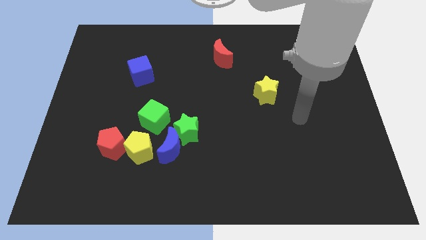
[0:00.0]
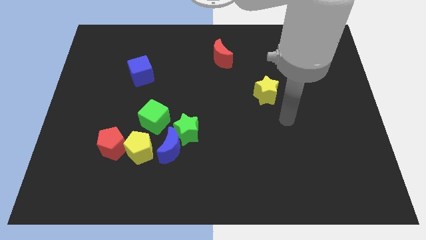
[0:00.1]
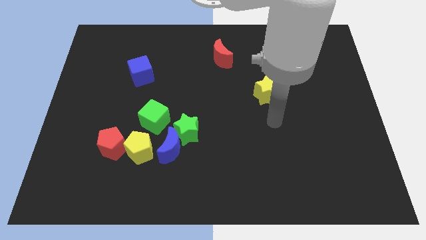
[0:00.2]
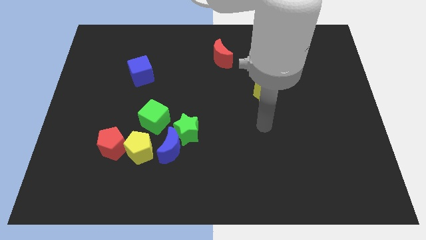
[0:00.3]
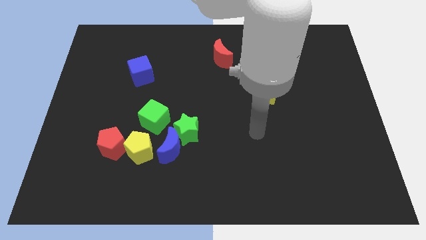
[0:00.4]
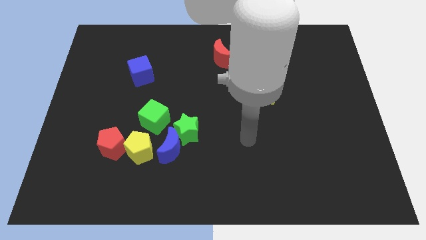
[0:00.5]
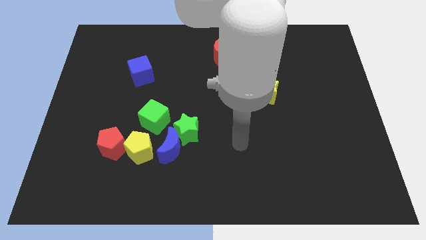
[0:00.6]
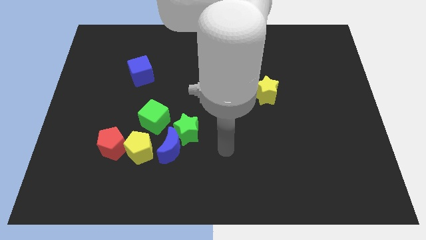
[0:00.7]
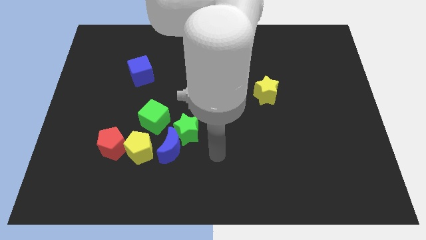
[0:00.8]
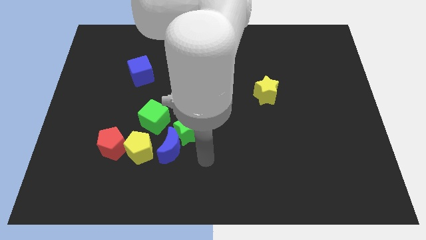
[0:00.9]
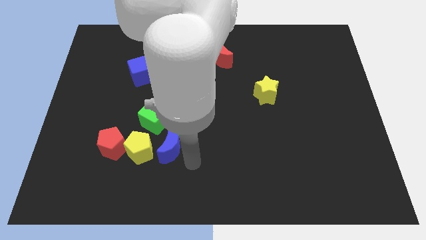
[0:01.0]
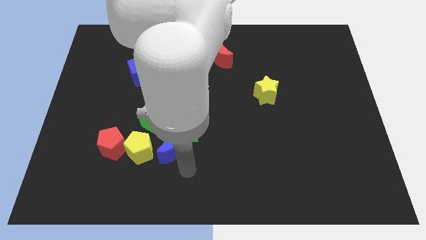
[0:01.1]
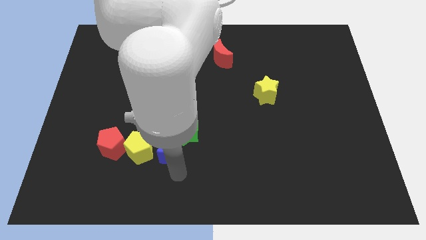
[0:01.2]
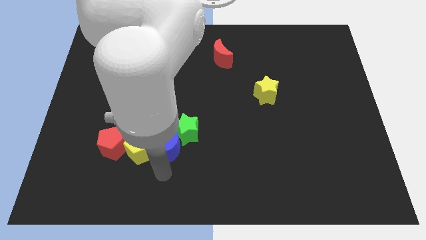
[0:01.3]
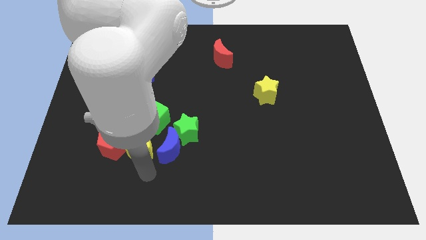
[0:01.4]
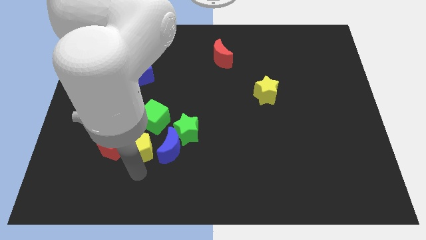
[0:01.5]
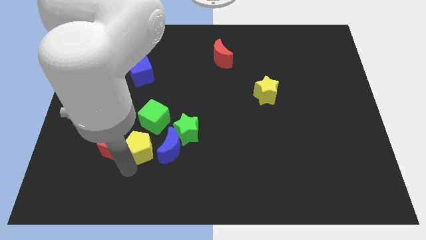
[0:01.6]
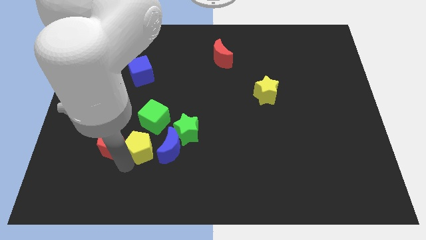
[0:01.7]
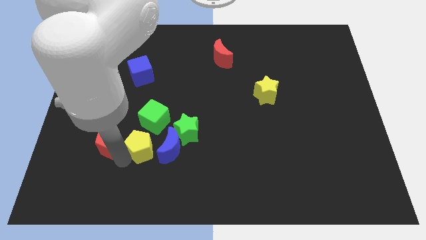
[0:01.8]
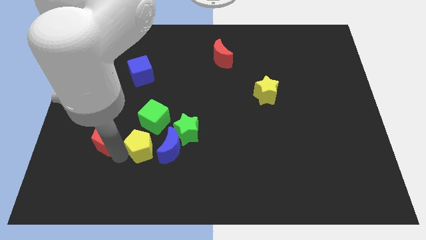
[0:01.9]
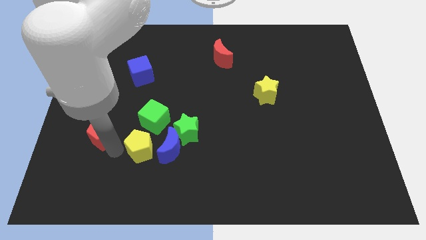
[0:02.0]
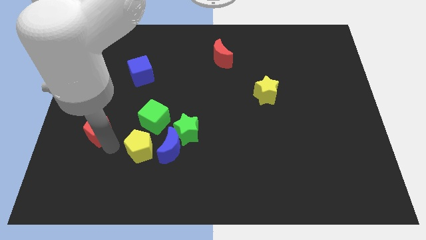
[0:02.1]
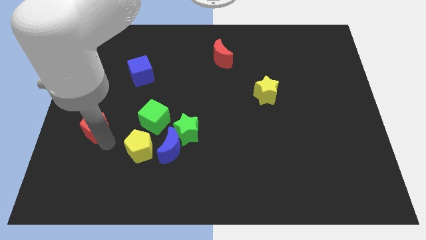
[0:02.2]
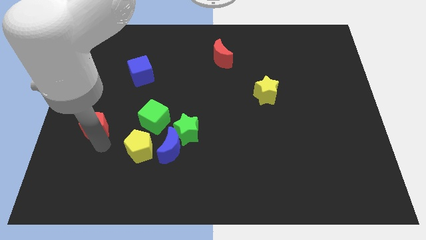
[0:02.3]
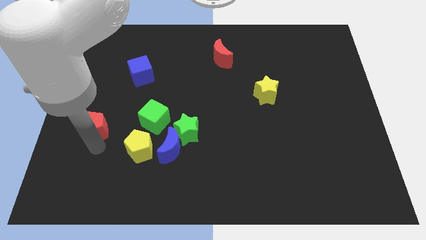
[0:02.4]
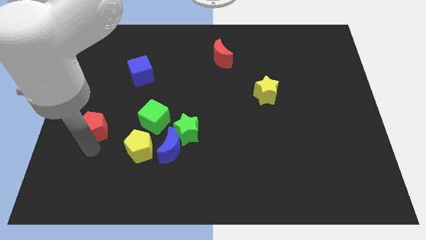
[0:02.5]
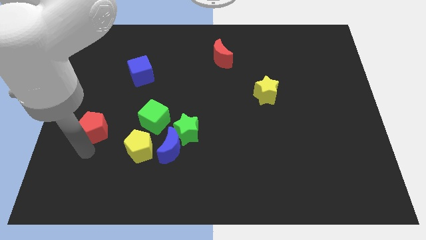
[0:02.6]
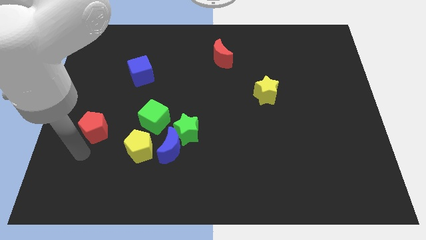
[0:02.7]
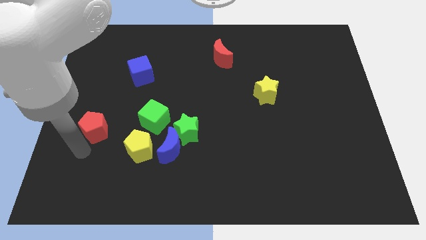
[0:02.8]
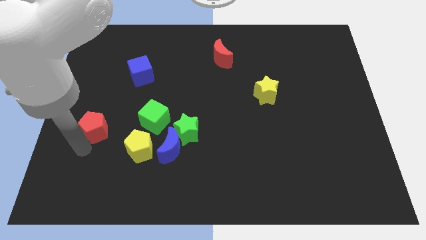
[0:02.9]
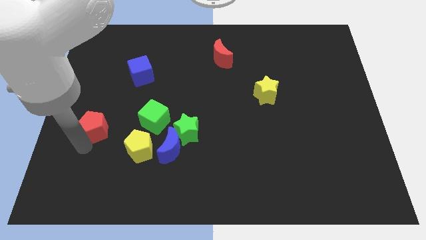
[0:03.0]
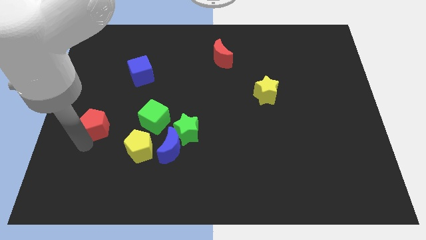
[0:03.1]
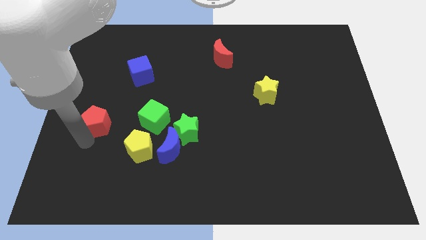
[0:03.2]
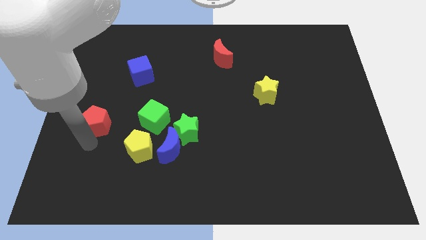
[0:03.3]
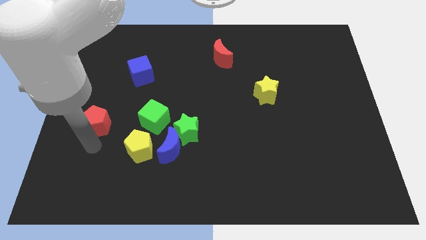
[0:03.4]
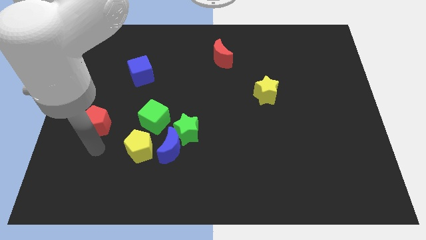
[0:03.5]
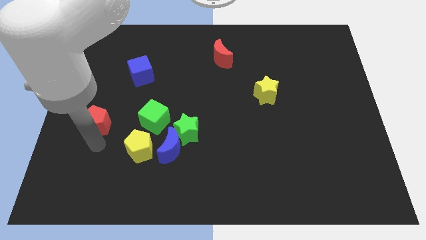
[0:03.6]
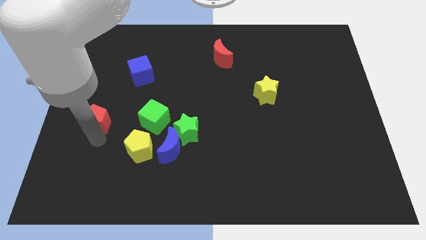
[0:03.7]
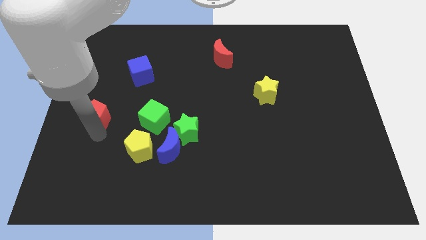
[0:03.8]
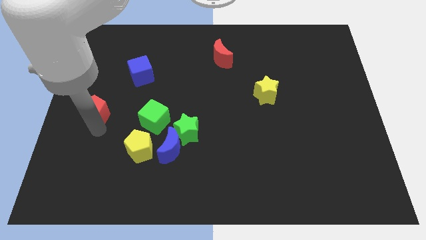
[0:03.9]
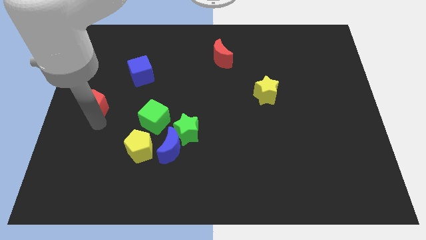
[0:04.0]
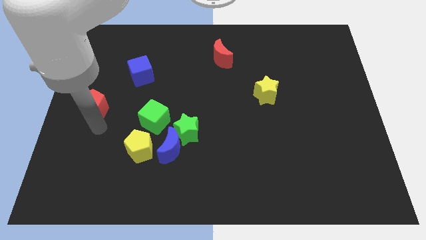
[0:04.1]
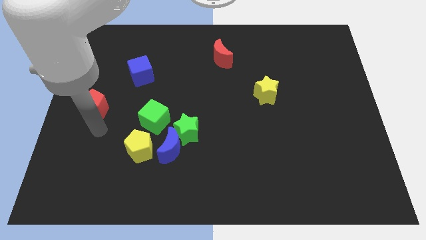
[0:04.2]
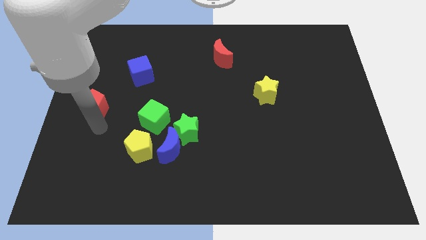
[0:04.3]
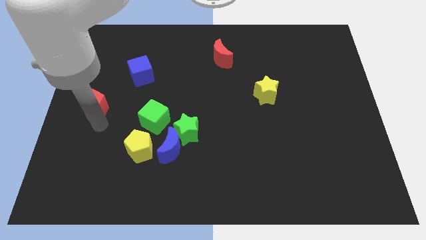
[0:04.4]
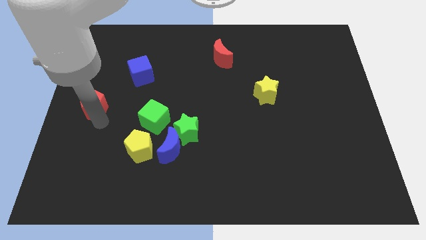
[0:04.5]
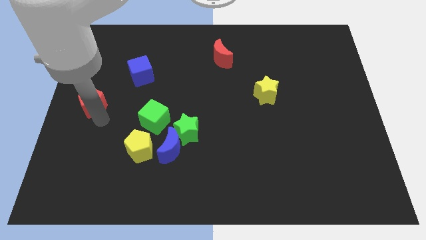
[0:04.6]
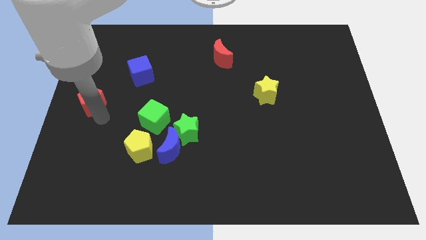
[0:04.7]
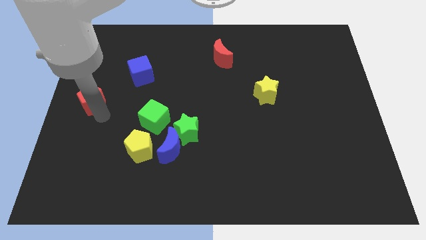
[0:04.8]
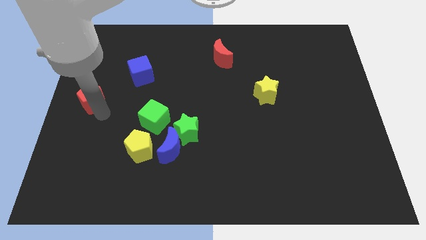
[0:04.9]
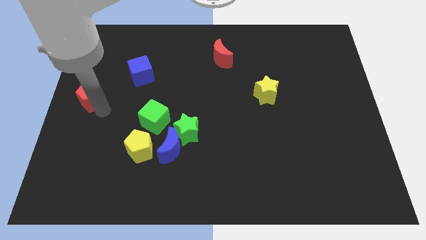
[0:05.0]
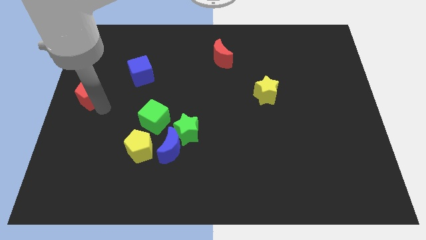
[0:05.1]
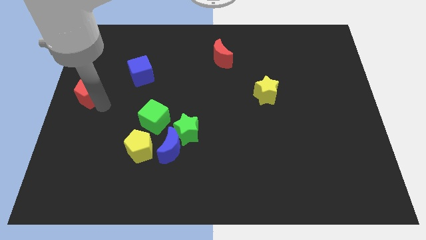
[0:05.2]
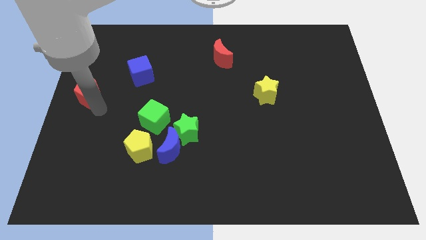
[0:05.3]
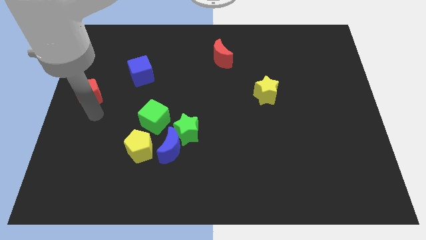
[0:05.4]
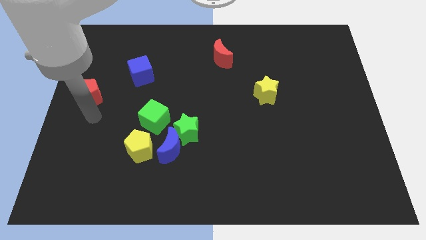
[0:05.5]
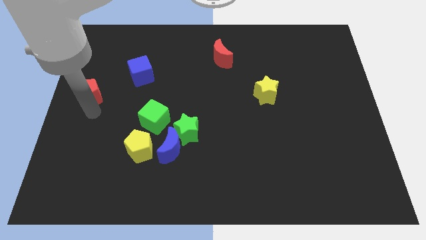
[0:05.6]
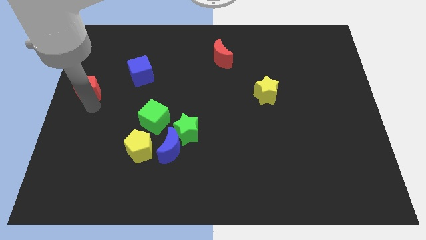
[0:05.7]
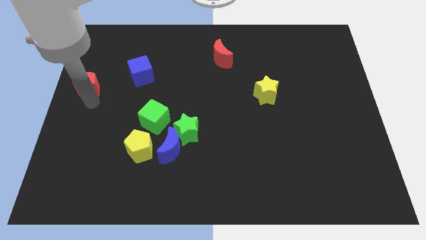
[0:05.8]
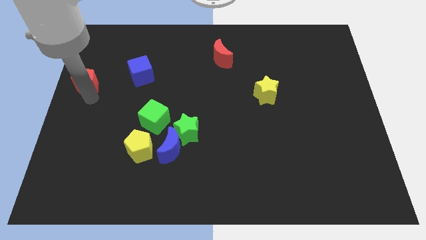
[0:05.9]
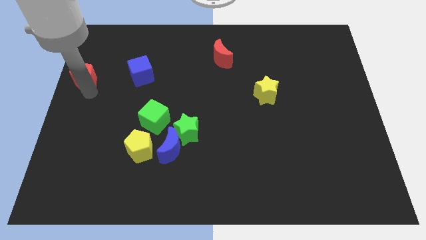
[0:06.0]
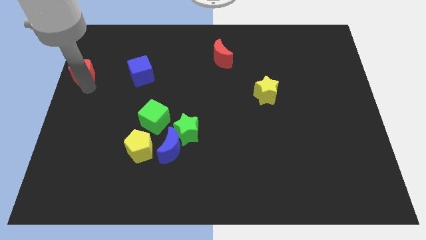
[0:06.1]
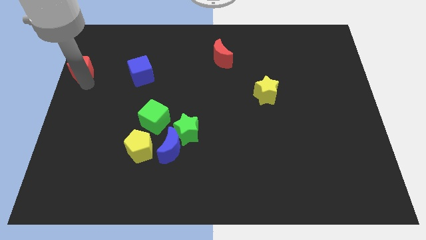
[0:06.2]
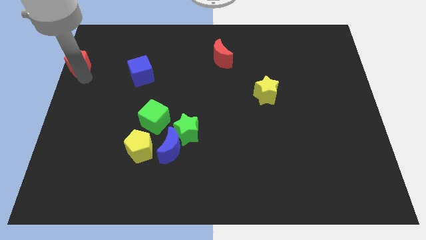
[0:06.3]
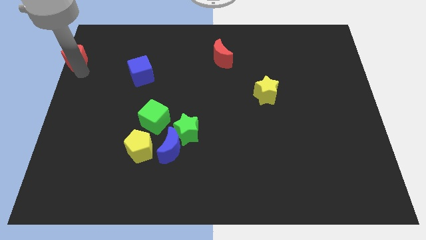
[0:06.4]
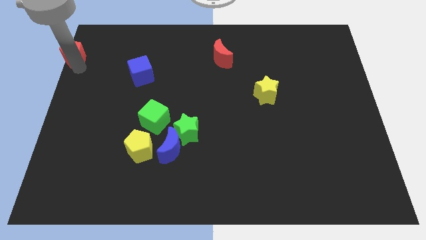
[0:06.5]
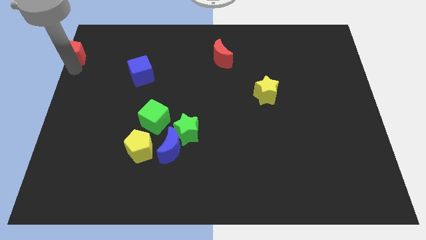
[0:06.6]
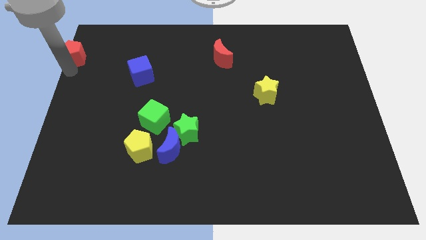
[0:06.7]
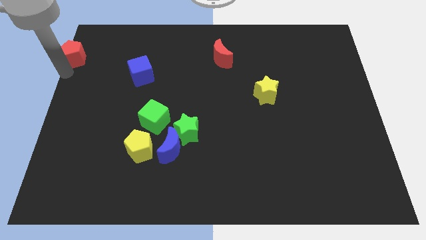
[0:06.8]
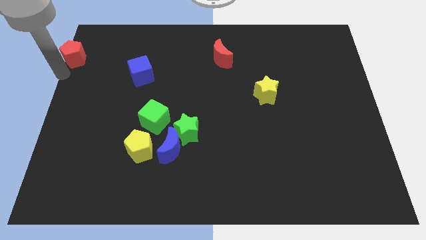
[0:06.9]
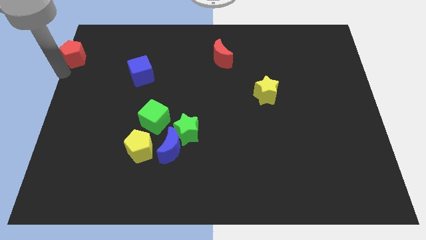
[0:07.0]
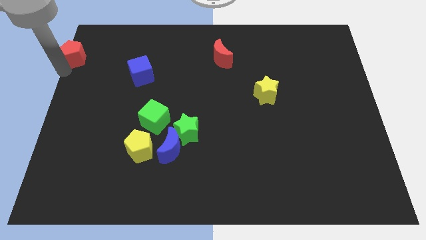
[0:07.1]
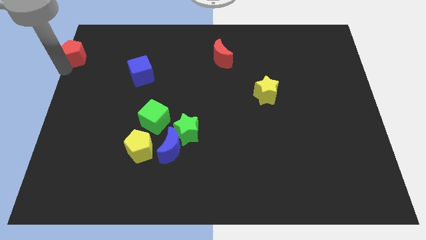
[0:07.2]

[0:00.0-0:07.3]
push the red pentagon to the top left corner
